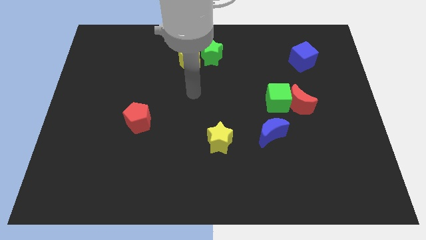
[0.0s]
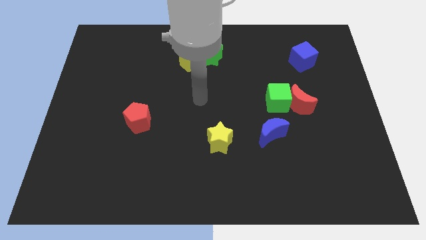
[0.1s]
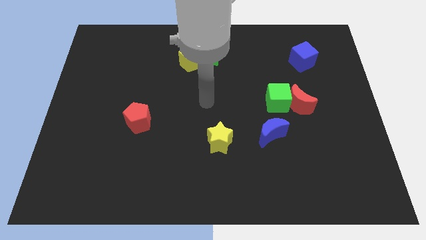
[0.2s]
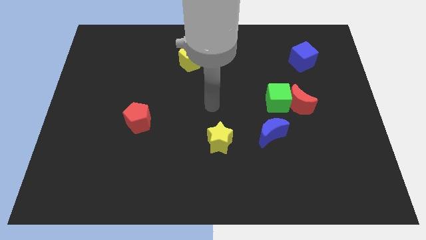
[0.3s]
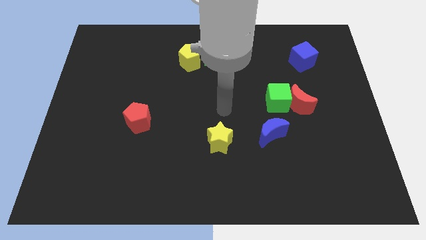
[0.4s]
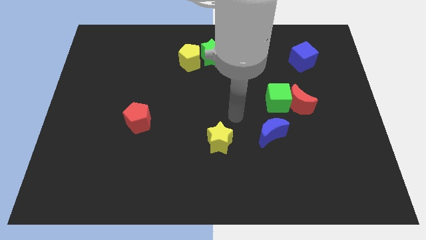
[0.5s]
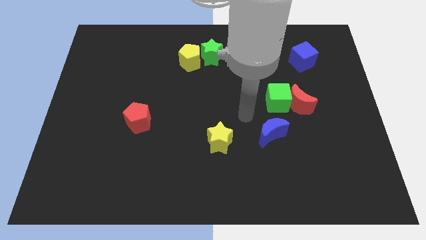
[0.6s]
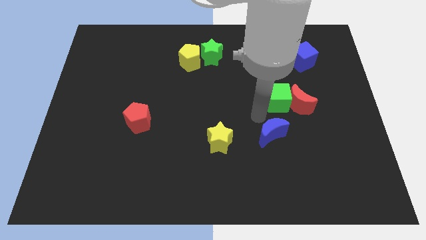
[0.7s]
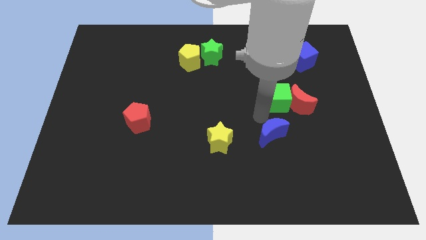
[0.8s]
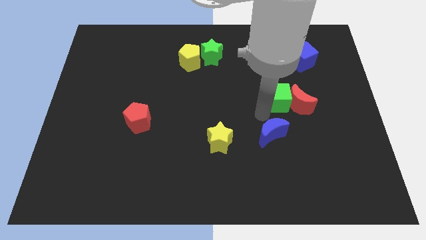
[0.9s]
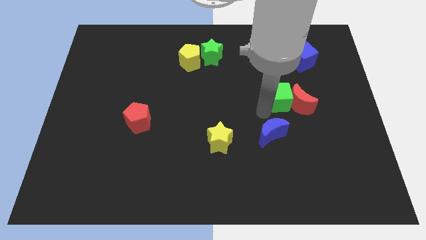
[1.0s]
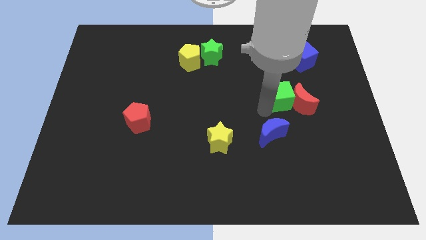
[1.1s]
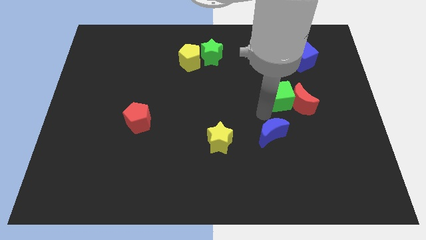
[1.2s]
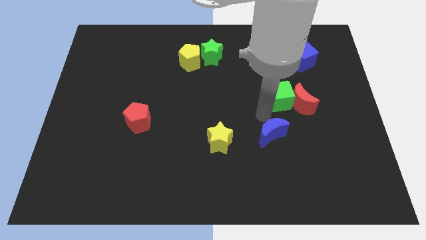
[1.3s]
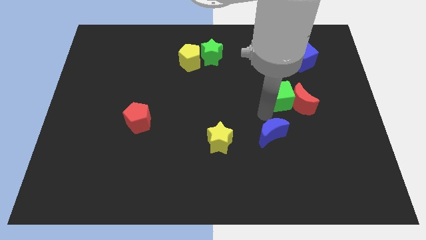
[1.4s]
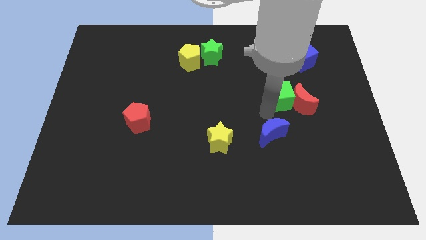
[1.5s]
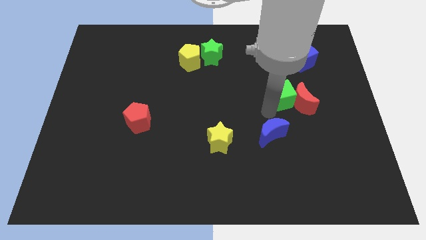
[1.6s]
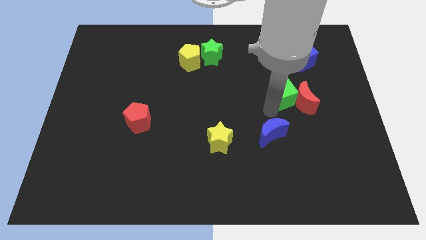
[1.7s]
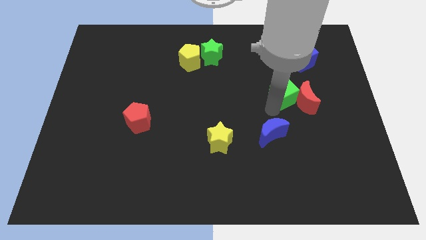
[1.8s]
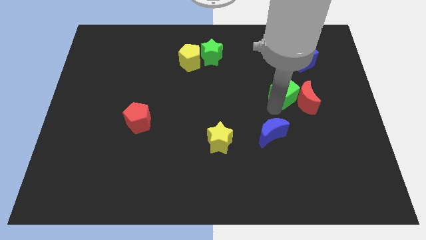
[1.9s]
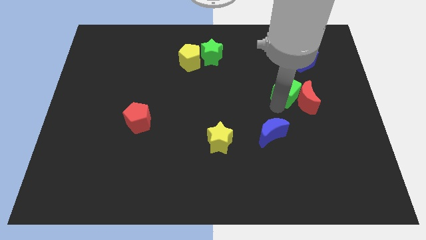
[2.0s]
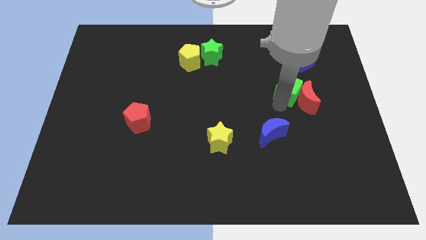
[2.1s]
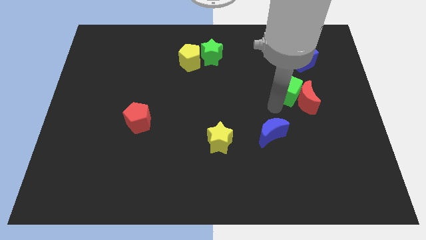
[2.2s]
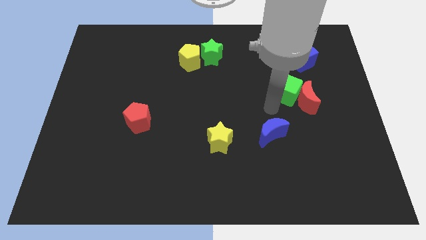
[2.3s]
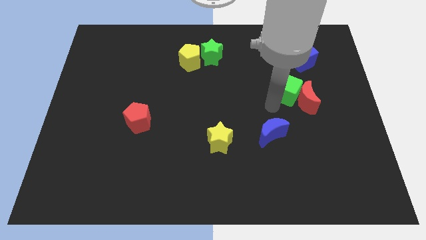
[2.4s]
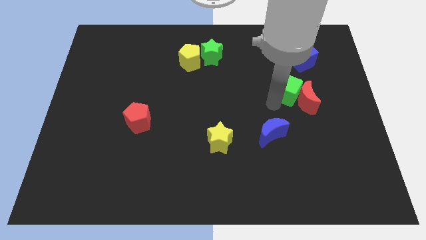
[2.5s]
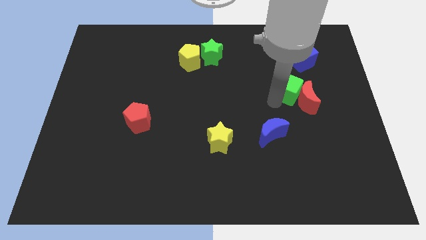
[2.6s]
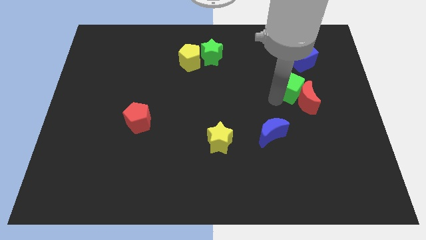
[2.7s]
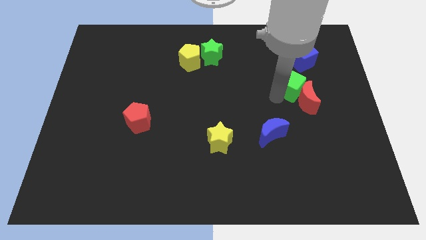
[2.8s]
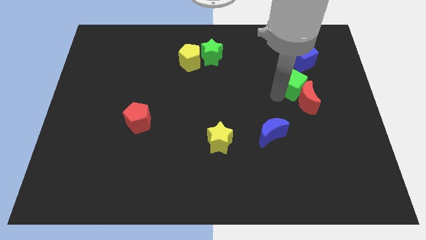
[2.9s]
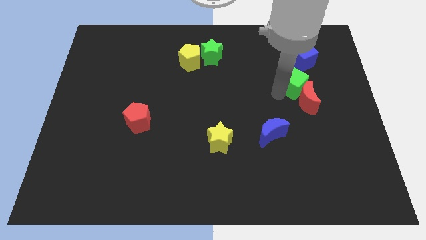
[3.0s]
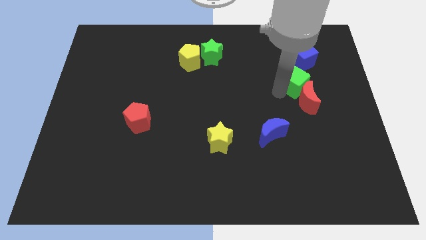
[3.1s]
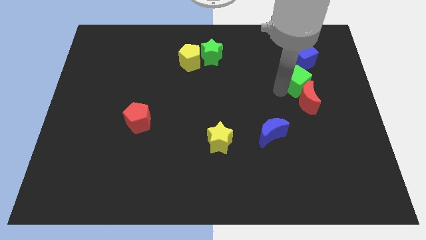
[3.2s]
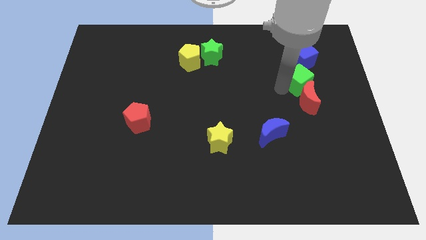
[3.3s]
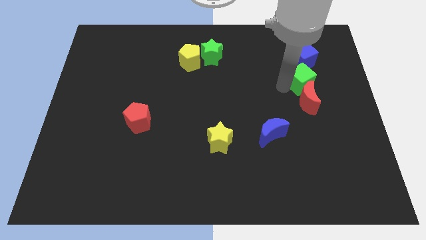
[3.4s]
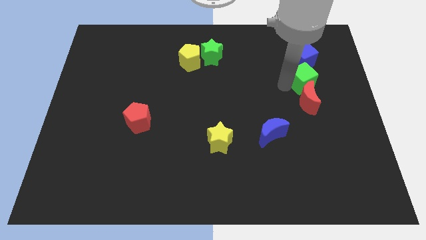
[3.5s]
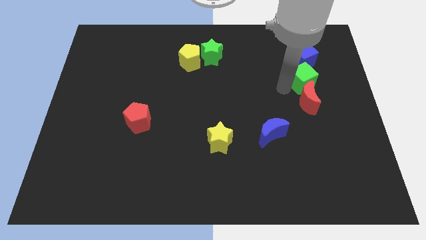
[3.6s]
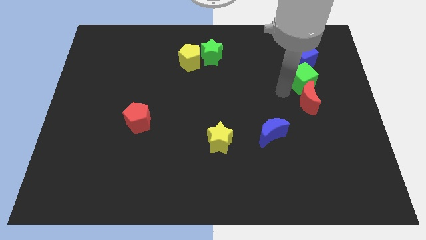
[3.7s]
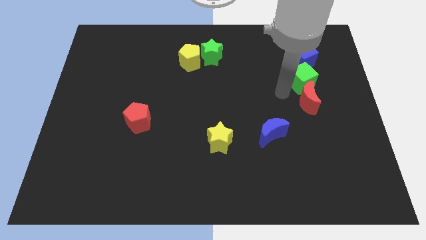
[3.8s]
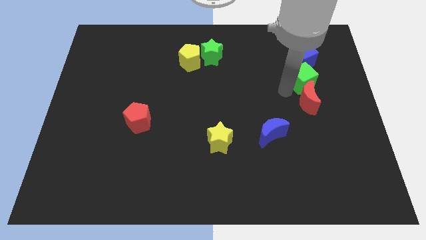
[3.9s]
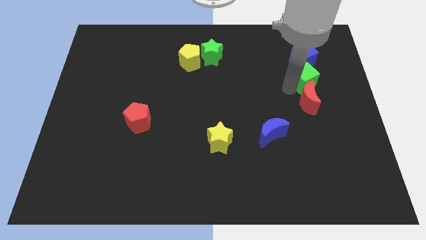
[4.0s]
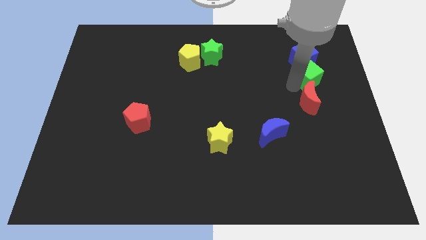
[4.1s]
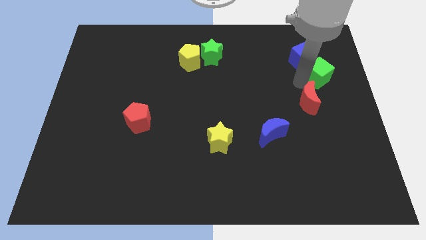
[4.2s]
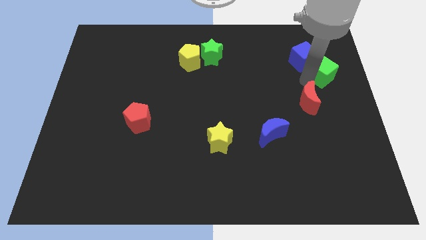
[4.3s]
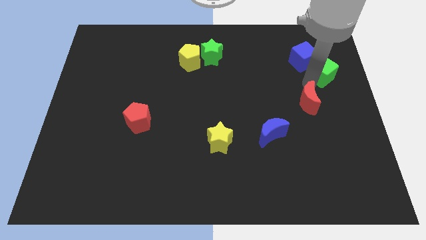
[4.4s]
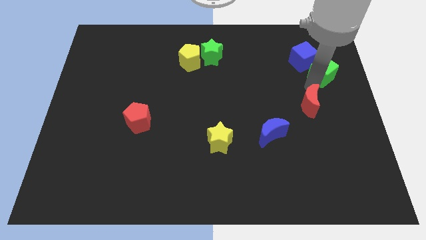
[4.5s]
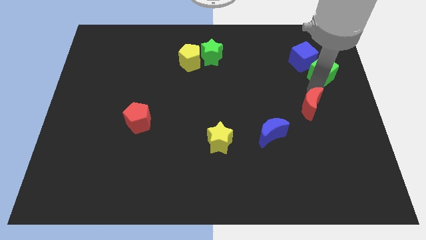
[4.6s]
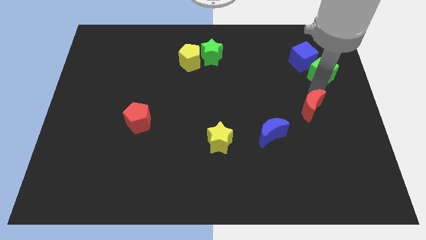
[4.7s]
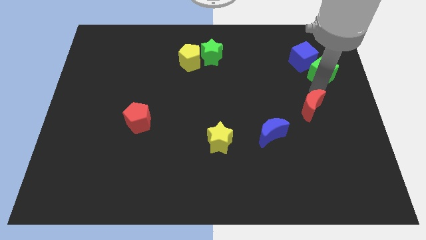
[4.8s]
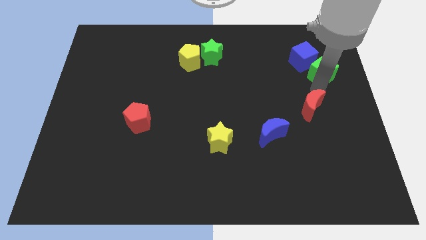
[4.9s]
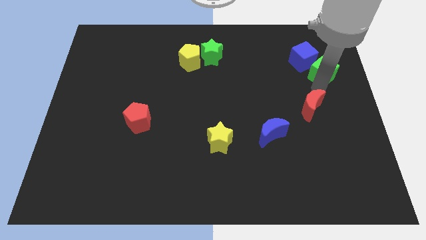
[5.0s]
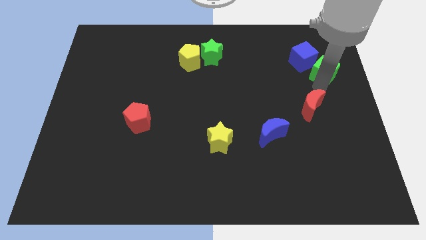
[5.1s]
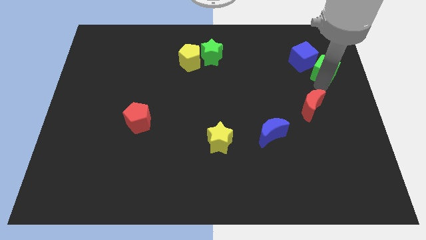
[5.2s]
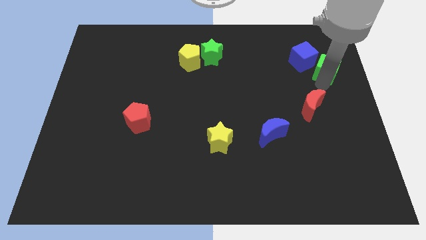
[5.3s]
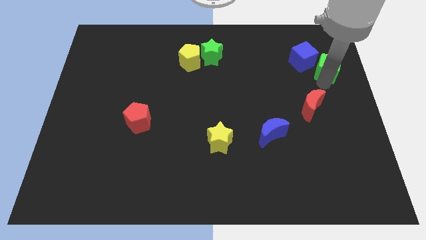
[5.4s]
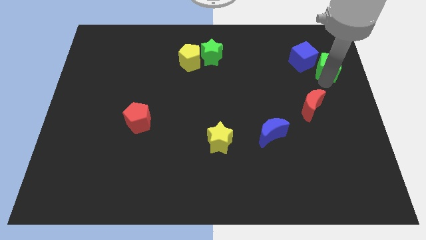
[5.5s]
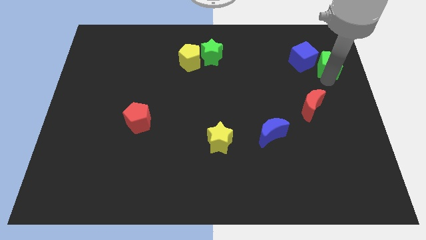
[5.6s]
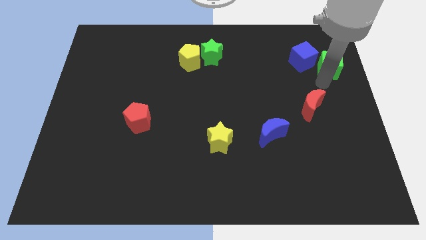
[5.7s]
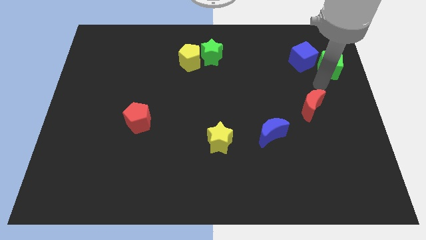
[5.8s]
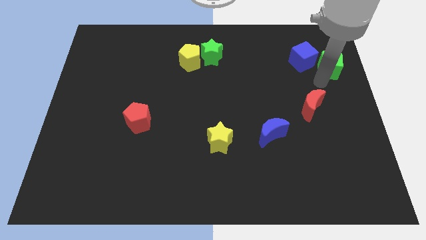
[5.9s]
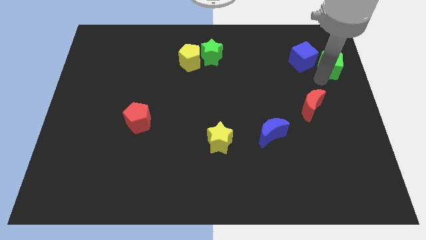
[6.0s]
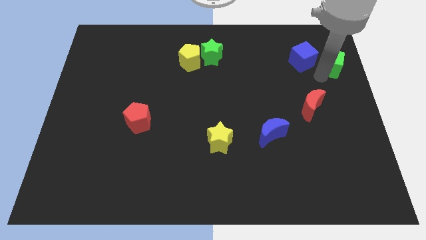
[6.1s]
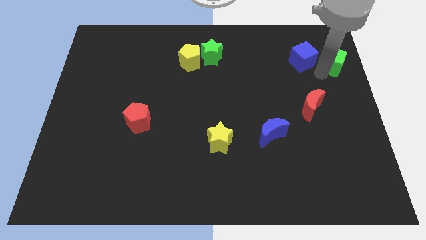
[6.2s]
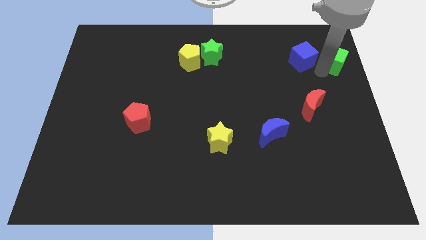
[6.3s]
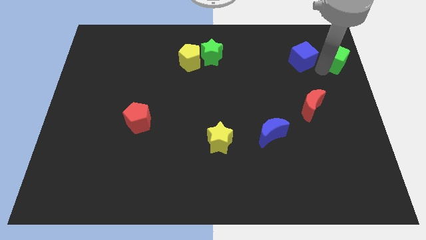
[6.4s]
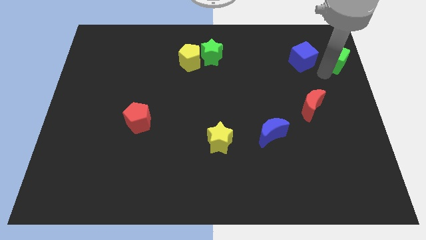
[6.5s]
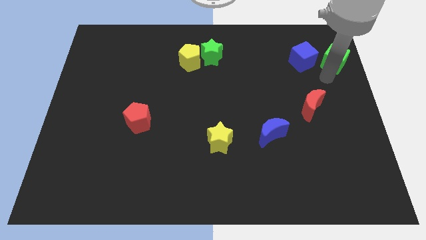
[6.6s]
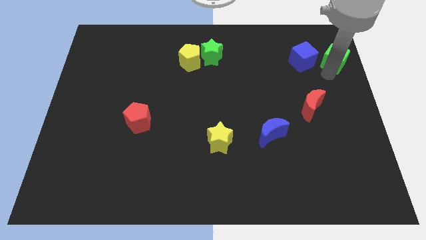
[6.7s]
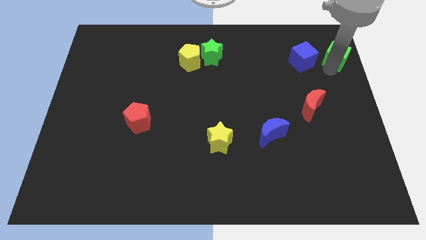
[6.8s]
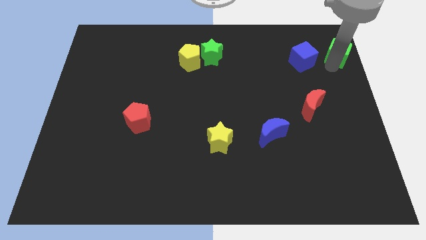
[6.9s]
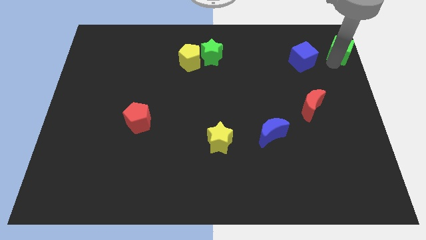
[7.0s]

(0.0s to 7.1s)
put the green cube to the upper right corner
